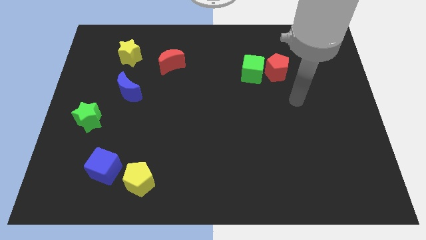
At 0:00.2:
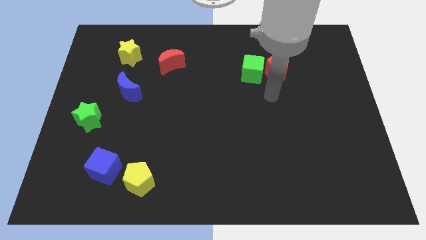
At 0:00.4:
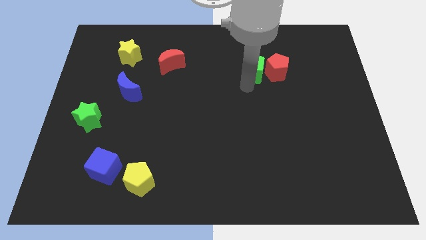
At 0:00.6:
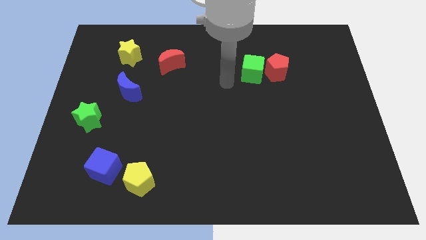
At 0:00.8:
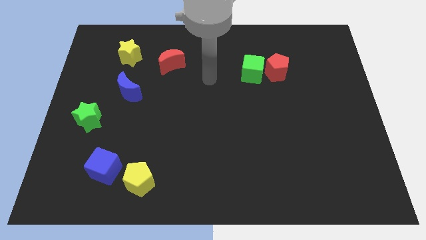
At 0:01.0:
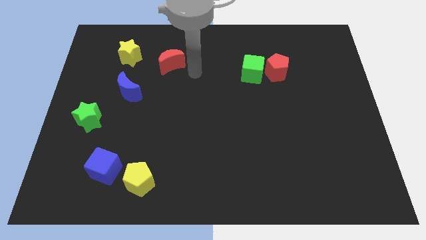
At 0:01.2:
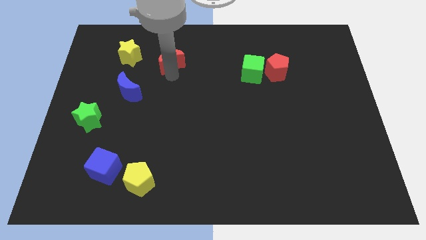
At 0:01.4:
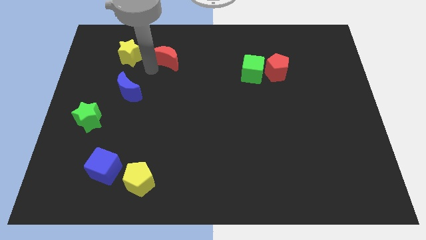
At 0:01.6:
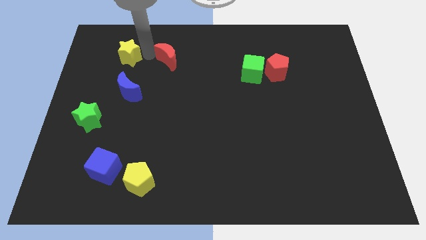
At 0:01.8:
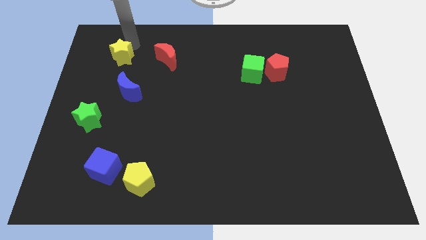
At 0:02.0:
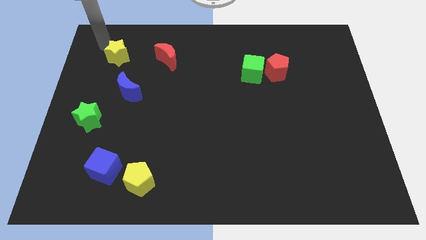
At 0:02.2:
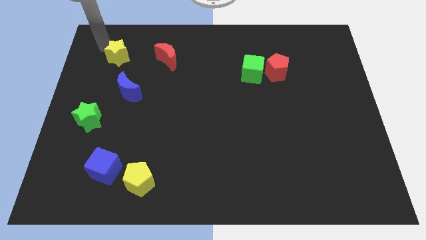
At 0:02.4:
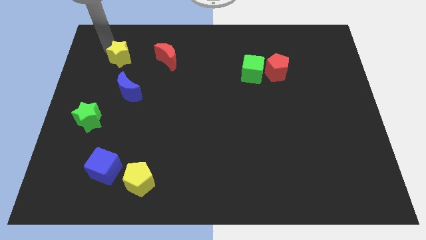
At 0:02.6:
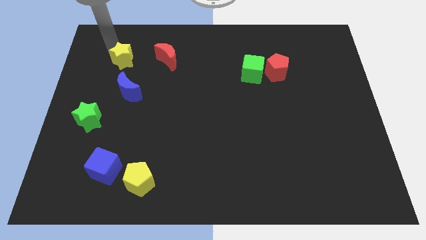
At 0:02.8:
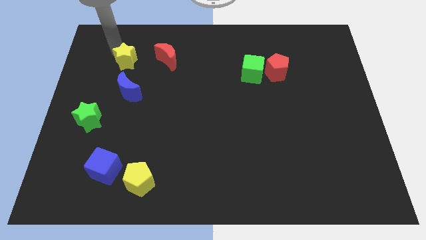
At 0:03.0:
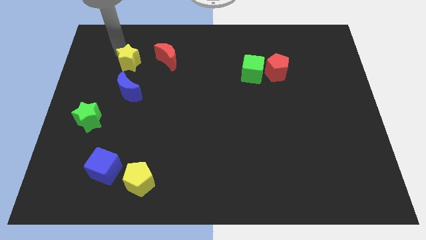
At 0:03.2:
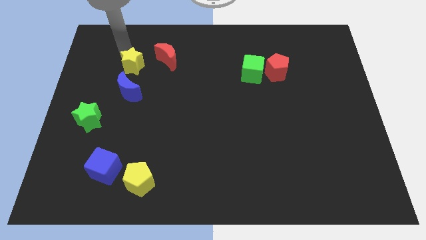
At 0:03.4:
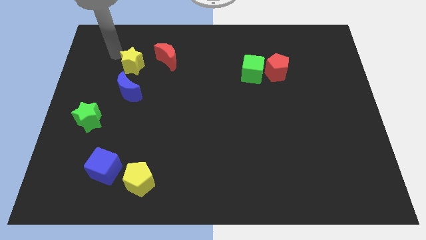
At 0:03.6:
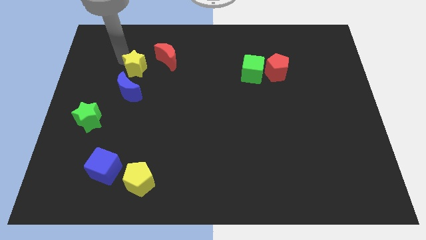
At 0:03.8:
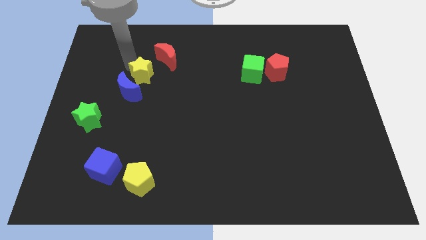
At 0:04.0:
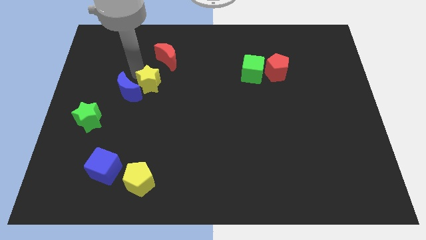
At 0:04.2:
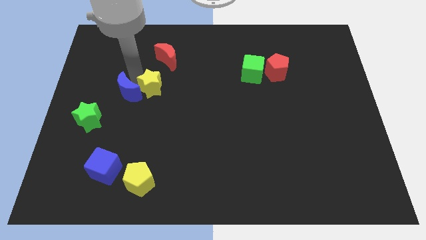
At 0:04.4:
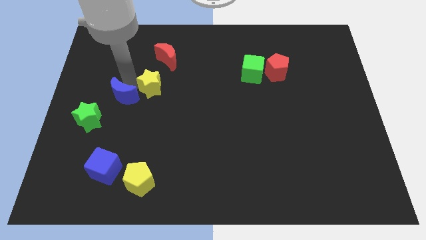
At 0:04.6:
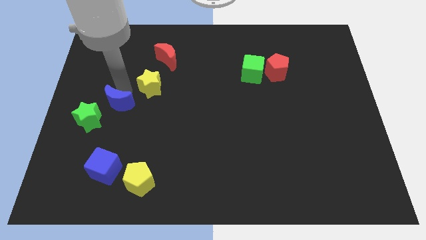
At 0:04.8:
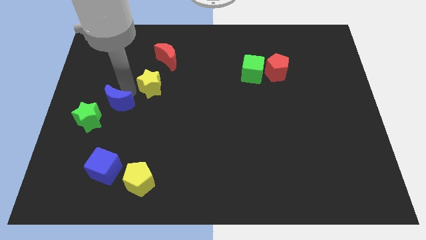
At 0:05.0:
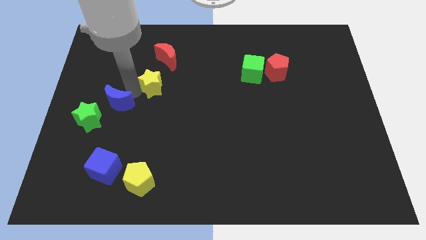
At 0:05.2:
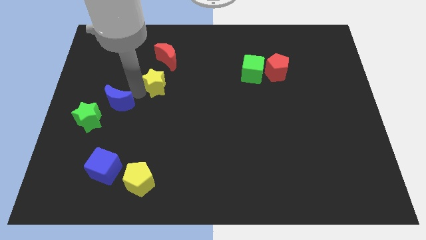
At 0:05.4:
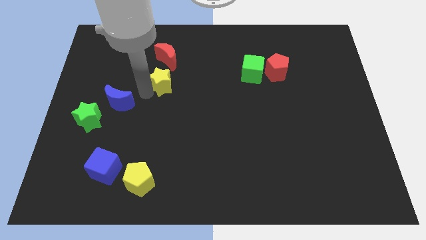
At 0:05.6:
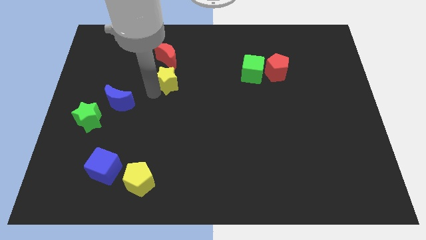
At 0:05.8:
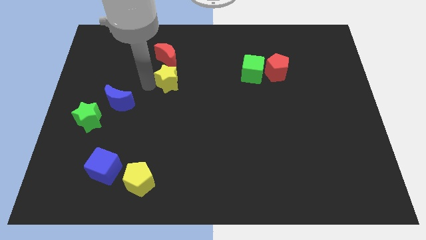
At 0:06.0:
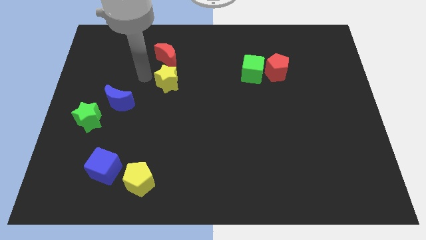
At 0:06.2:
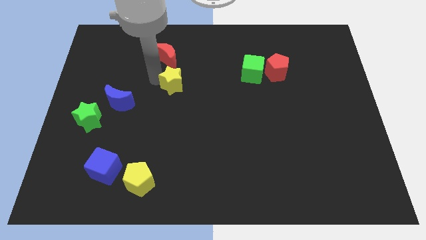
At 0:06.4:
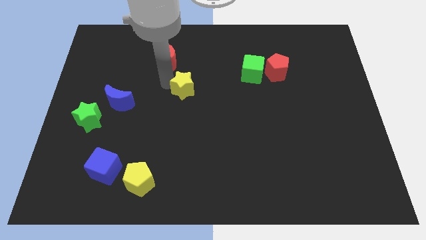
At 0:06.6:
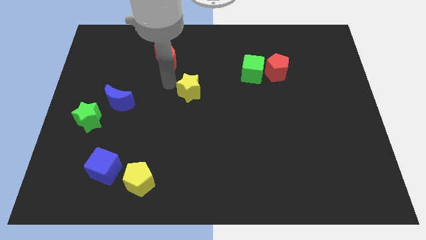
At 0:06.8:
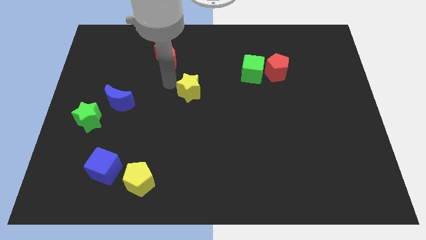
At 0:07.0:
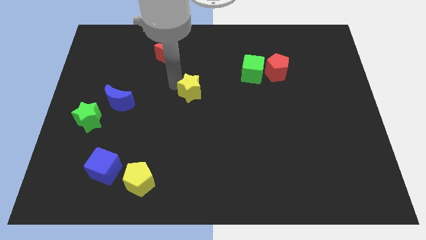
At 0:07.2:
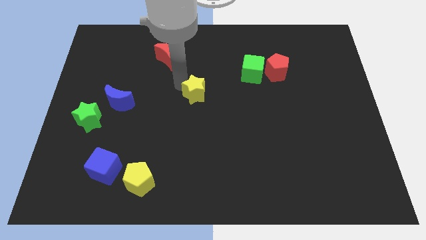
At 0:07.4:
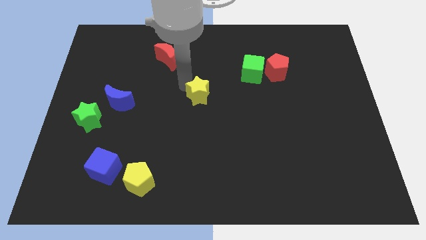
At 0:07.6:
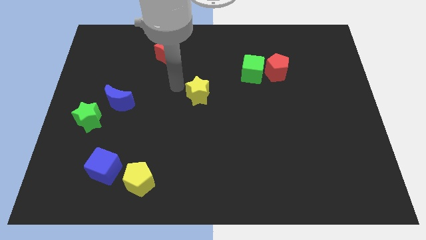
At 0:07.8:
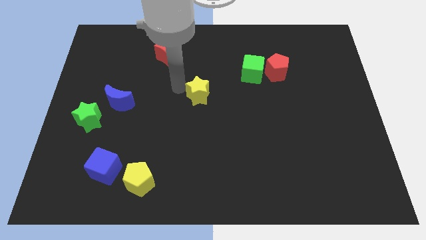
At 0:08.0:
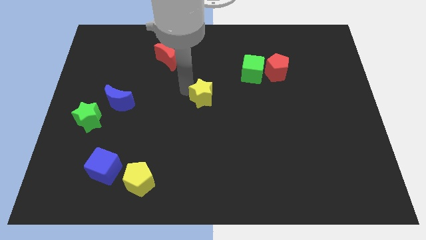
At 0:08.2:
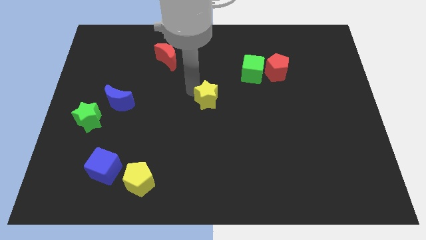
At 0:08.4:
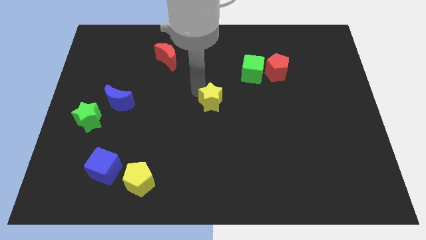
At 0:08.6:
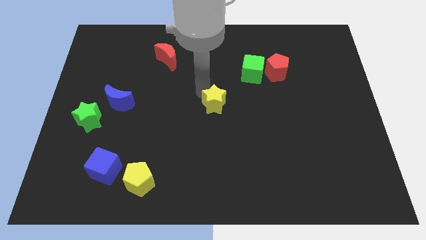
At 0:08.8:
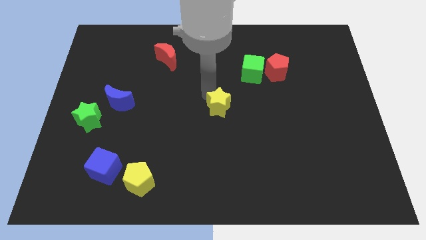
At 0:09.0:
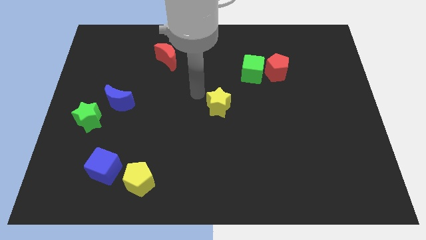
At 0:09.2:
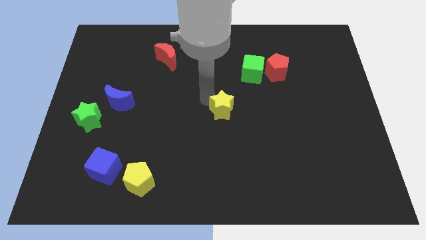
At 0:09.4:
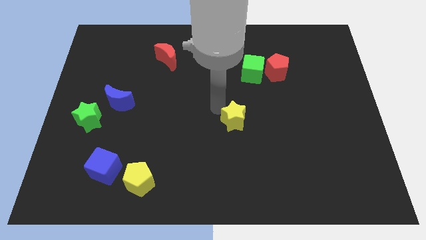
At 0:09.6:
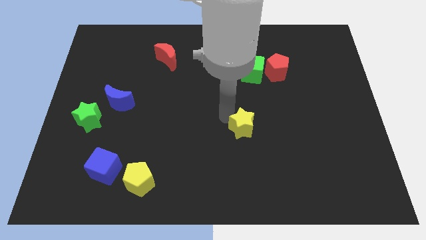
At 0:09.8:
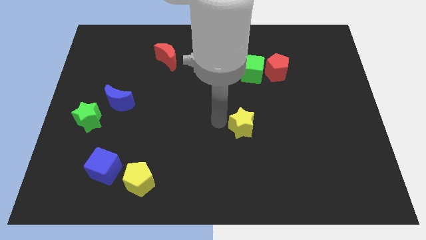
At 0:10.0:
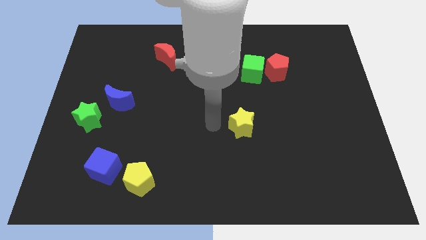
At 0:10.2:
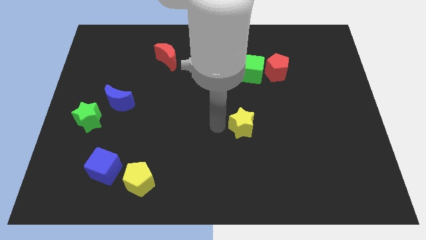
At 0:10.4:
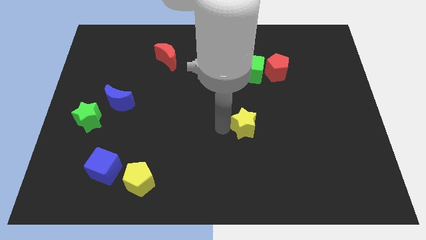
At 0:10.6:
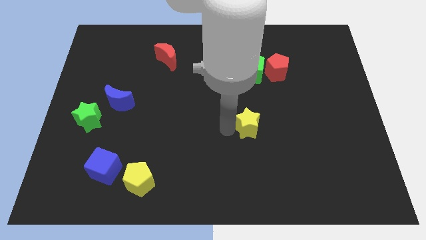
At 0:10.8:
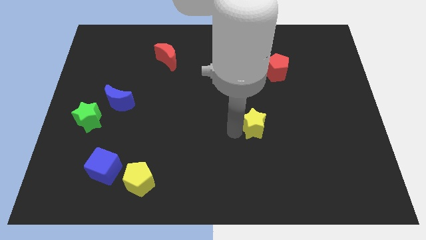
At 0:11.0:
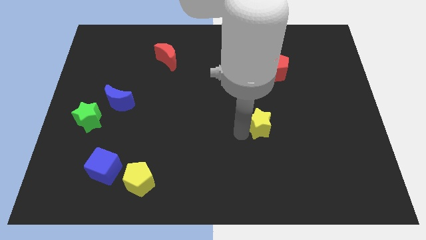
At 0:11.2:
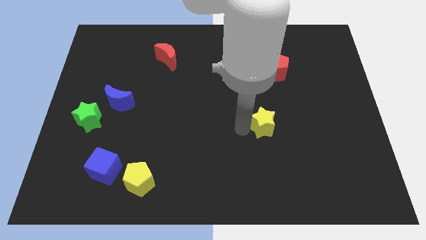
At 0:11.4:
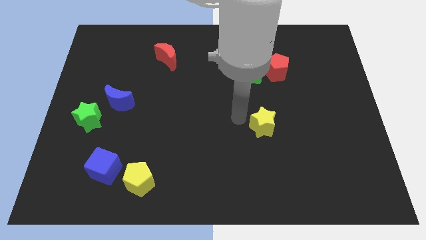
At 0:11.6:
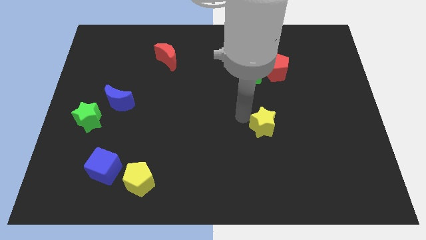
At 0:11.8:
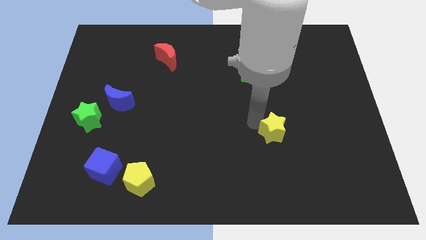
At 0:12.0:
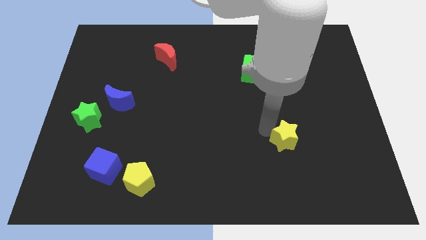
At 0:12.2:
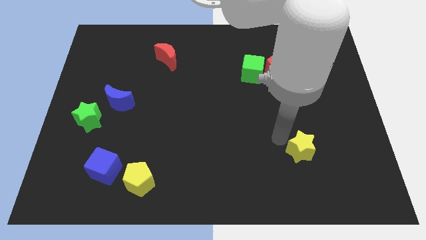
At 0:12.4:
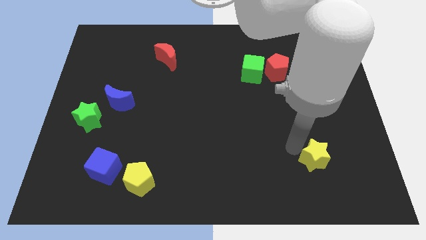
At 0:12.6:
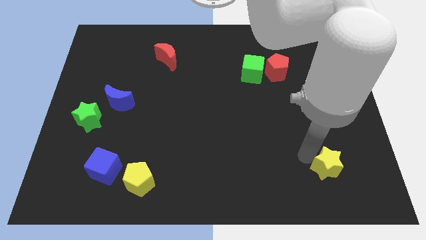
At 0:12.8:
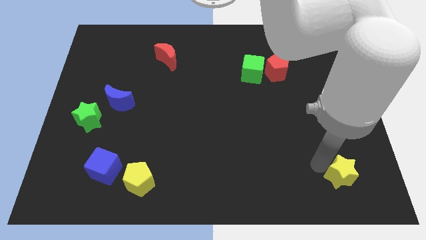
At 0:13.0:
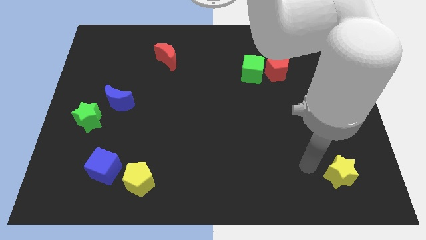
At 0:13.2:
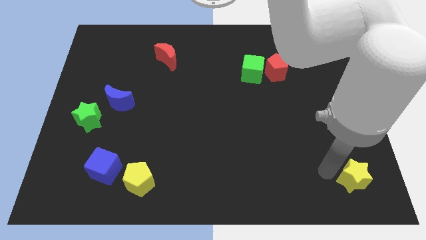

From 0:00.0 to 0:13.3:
slide the yellow star to the lower right corner
